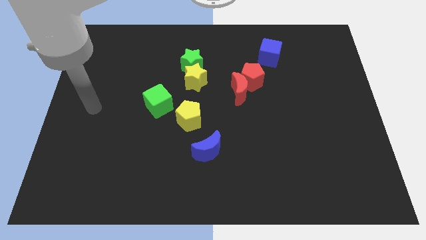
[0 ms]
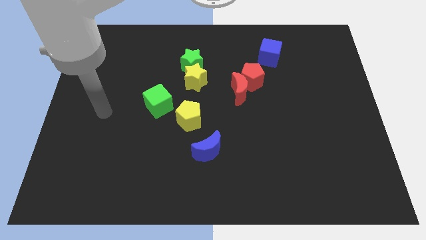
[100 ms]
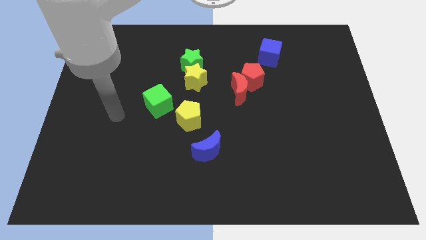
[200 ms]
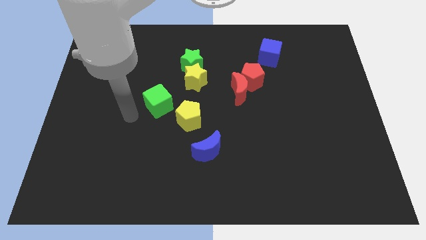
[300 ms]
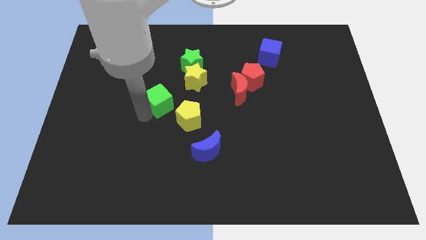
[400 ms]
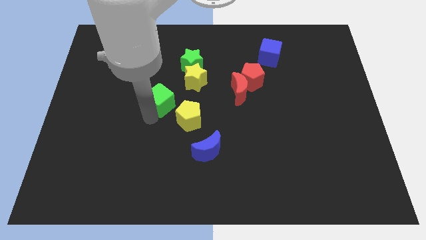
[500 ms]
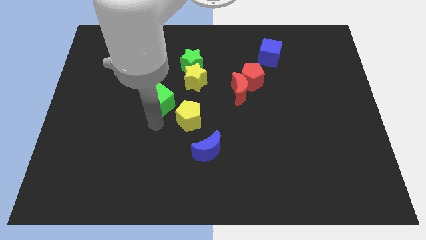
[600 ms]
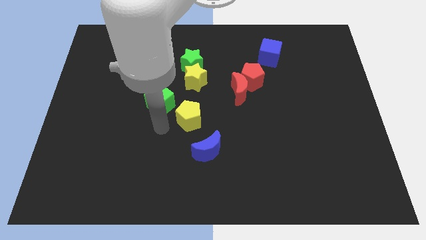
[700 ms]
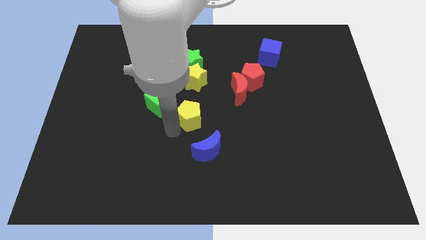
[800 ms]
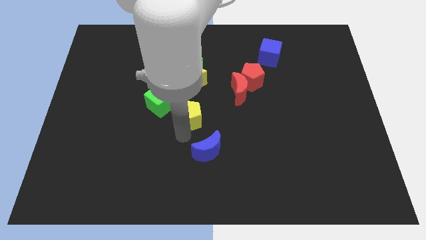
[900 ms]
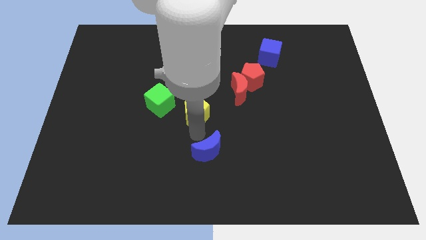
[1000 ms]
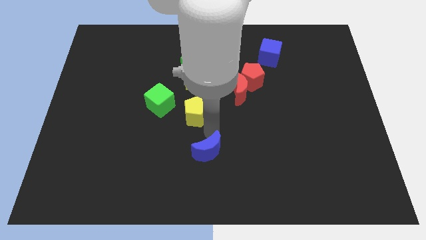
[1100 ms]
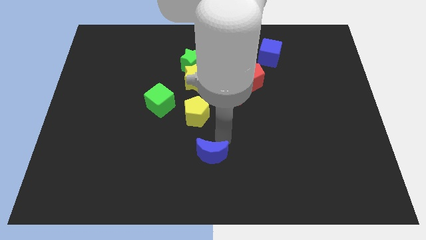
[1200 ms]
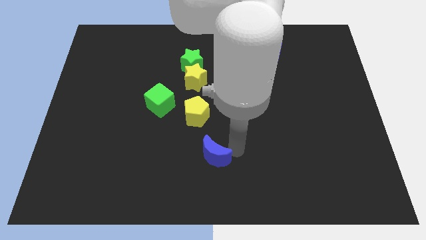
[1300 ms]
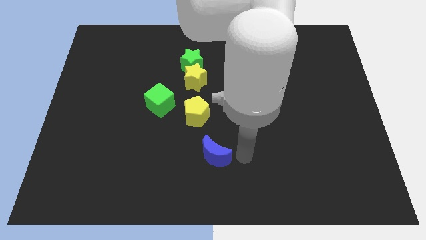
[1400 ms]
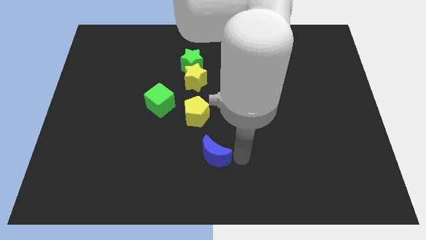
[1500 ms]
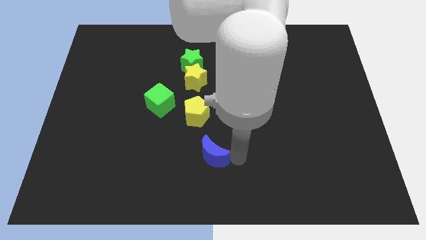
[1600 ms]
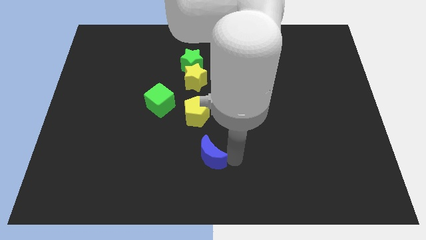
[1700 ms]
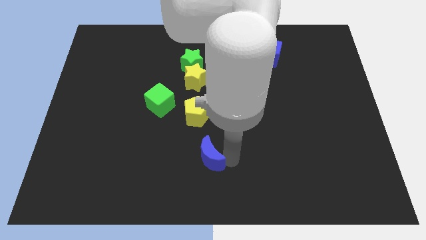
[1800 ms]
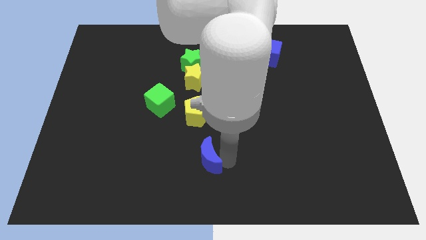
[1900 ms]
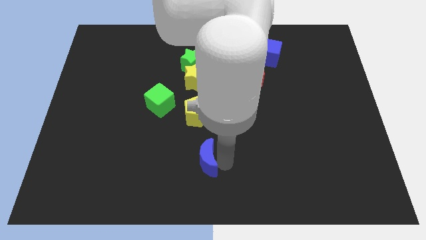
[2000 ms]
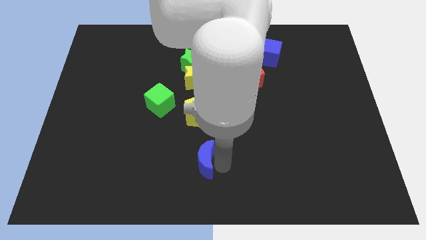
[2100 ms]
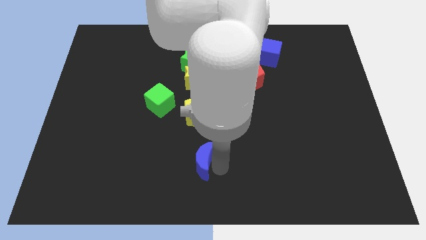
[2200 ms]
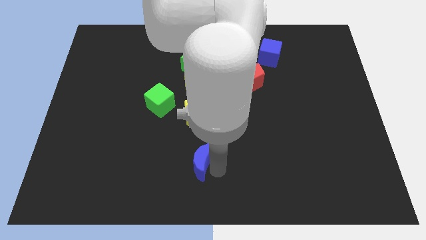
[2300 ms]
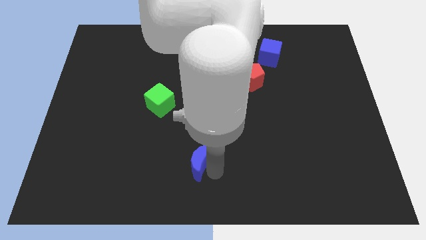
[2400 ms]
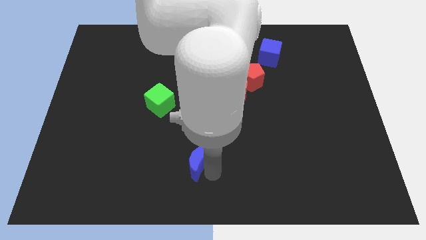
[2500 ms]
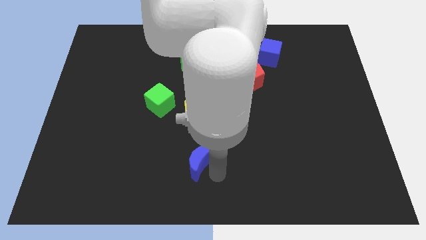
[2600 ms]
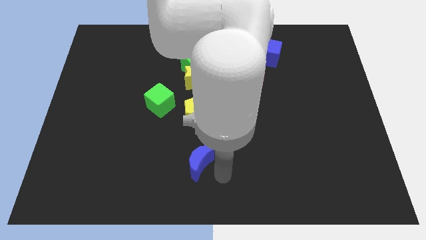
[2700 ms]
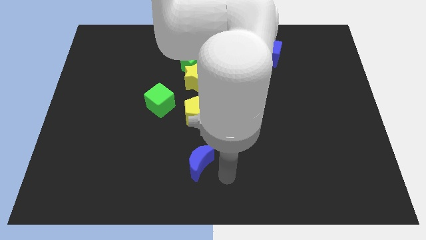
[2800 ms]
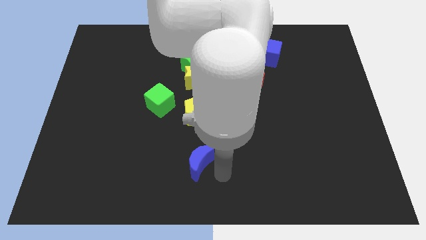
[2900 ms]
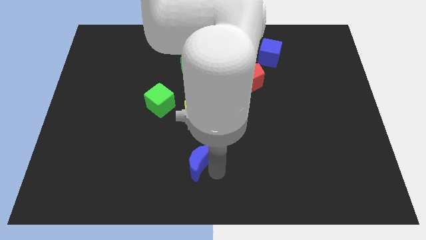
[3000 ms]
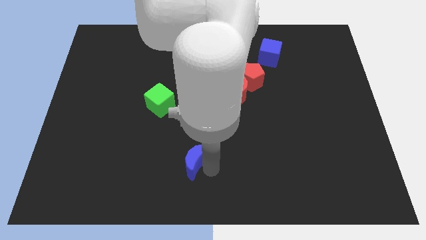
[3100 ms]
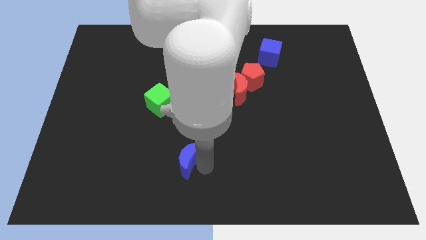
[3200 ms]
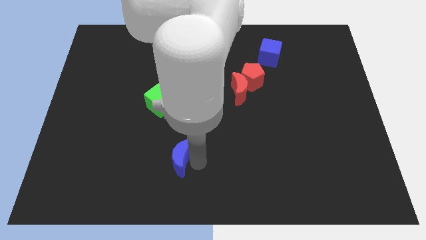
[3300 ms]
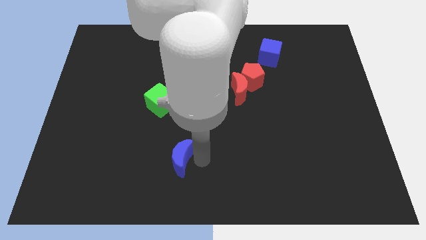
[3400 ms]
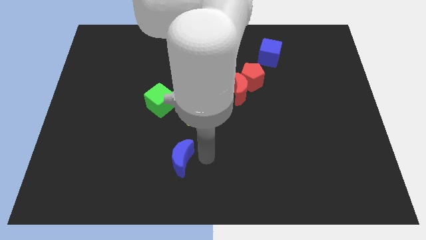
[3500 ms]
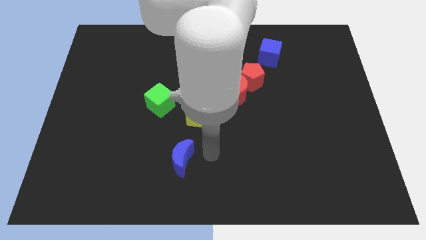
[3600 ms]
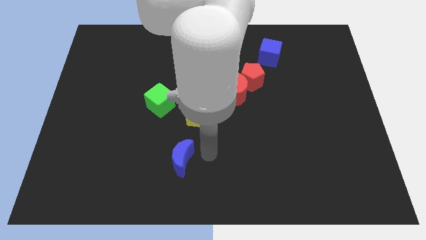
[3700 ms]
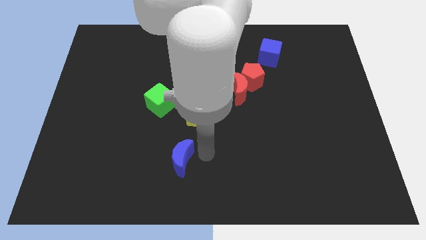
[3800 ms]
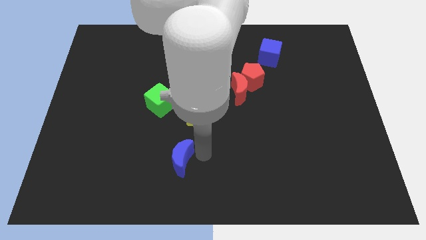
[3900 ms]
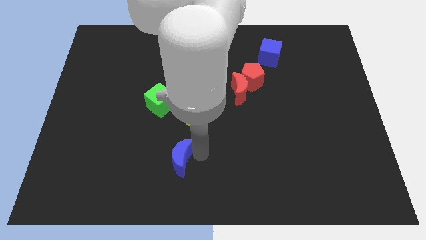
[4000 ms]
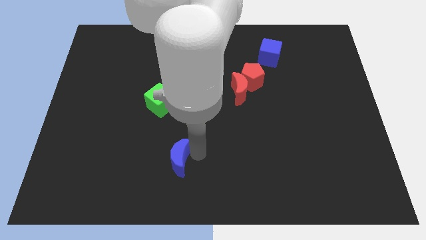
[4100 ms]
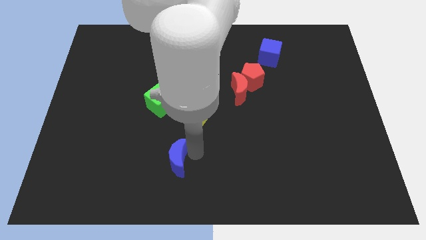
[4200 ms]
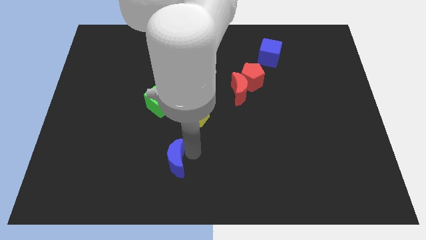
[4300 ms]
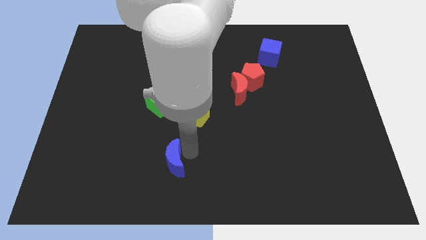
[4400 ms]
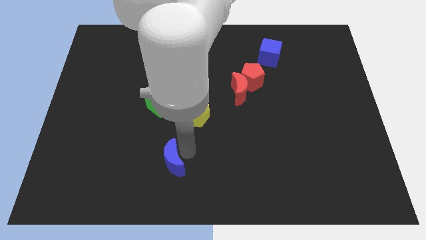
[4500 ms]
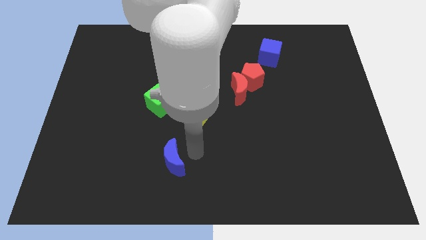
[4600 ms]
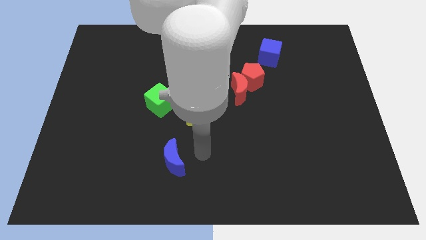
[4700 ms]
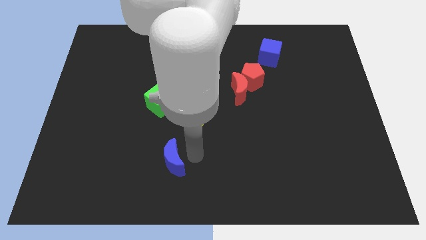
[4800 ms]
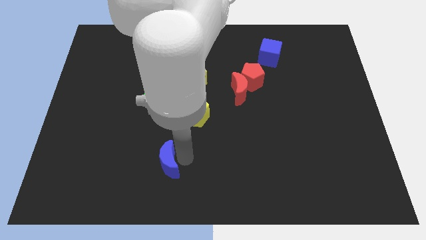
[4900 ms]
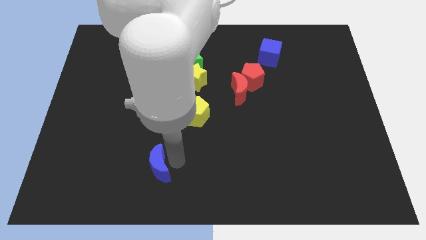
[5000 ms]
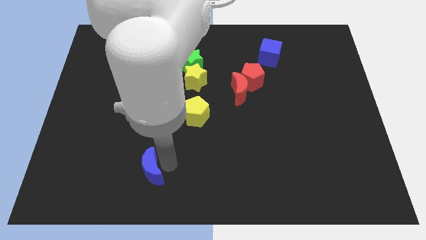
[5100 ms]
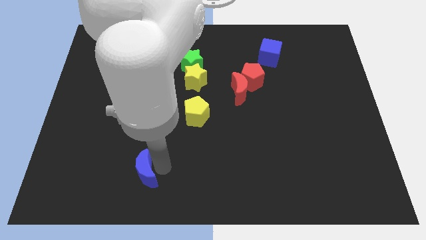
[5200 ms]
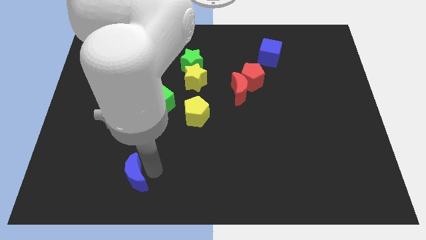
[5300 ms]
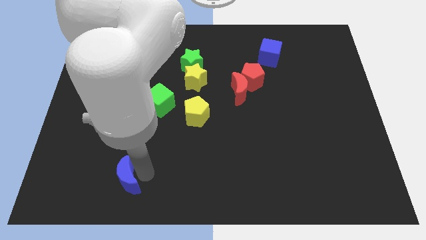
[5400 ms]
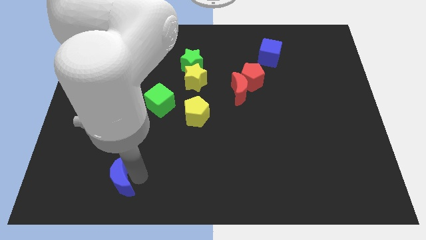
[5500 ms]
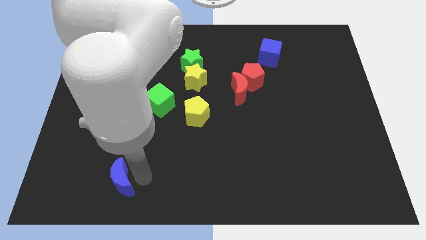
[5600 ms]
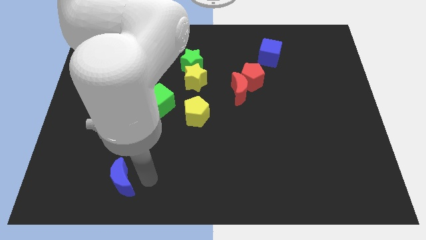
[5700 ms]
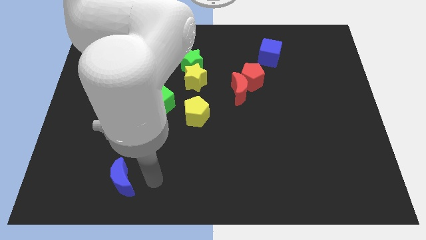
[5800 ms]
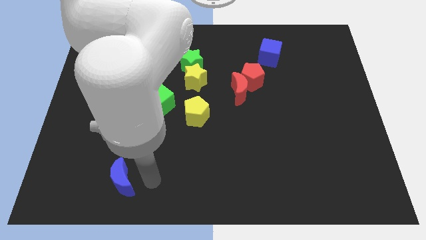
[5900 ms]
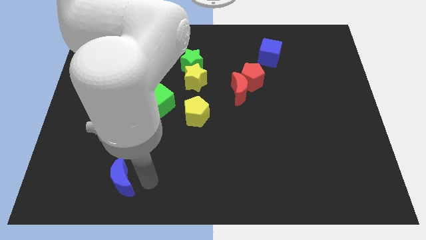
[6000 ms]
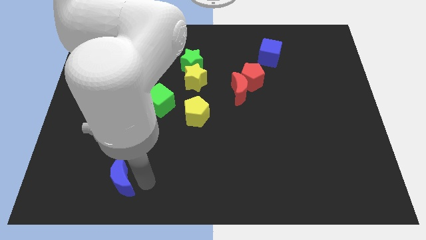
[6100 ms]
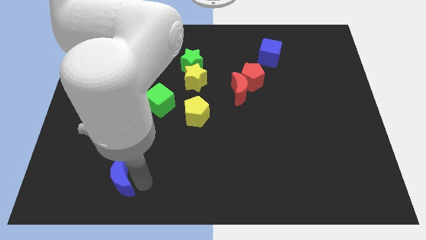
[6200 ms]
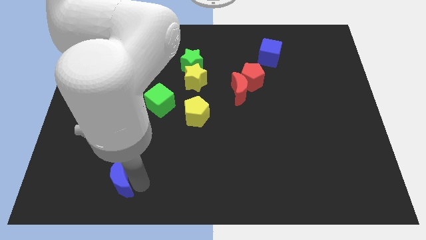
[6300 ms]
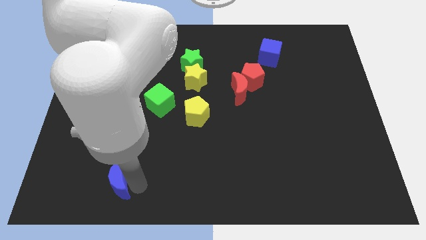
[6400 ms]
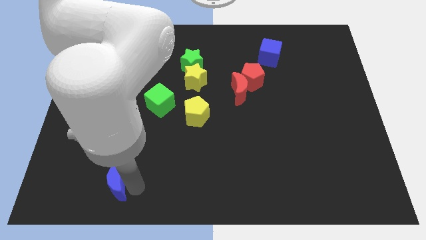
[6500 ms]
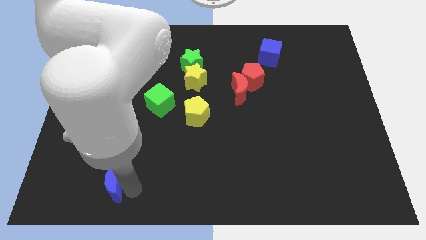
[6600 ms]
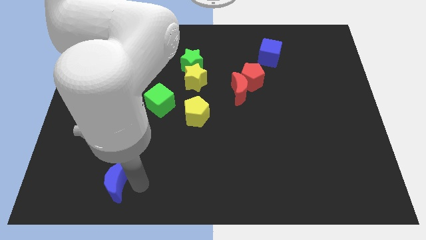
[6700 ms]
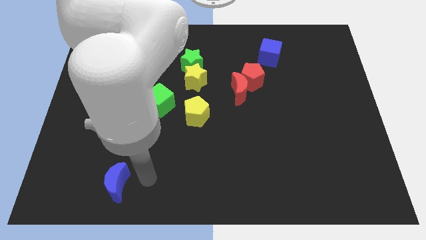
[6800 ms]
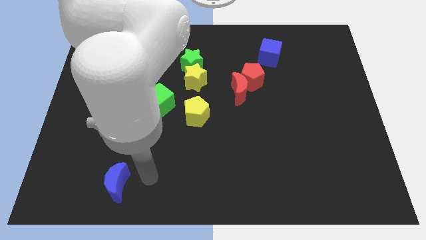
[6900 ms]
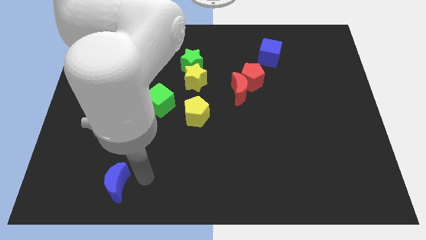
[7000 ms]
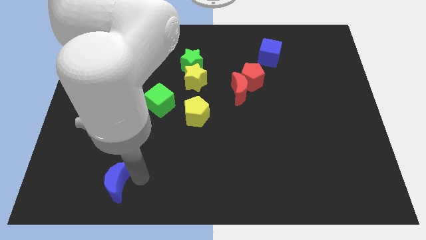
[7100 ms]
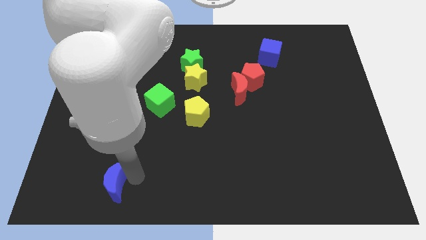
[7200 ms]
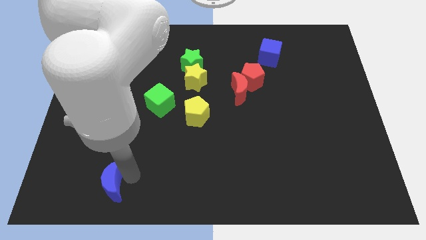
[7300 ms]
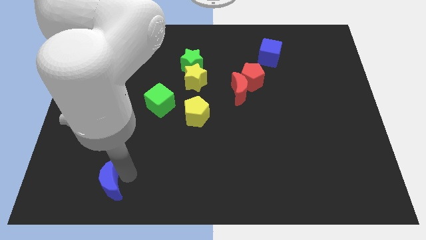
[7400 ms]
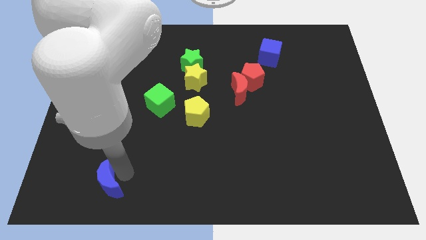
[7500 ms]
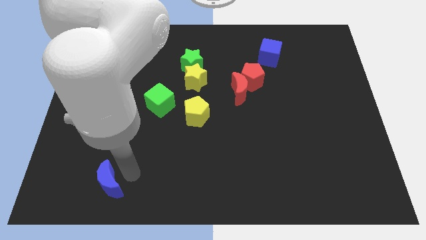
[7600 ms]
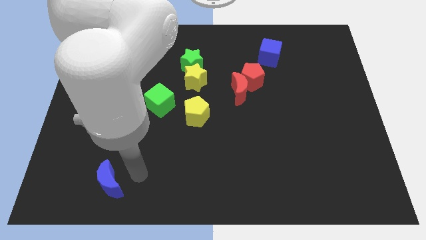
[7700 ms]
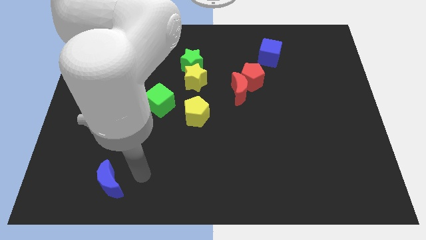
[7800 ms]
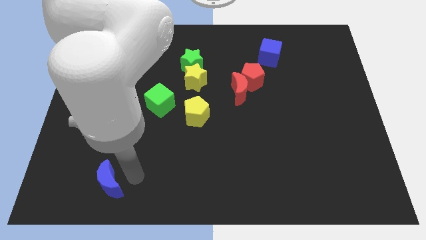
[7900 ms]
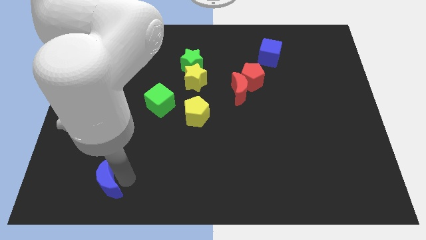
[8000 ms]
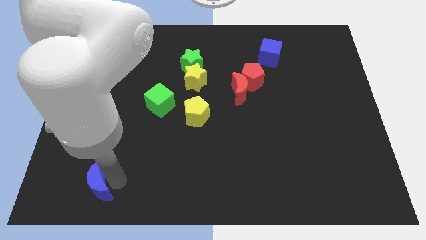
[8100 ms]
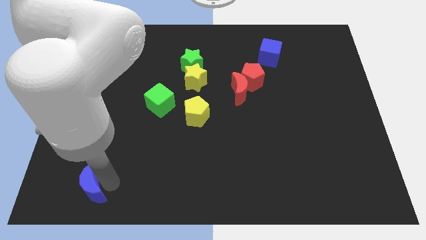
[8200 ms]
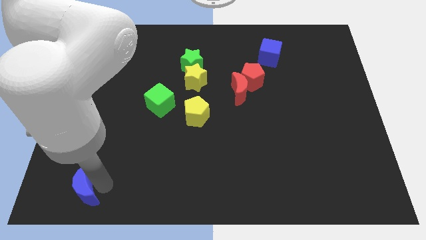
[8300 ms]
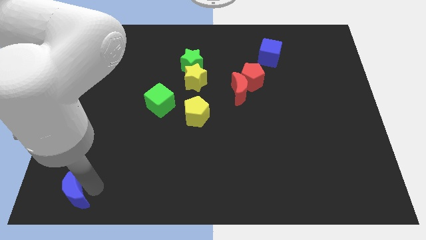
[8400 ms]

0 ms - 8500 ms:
move the blue moon to the bottom left of the board
